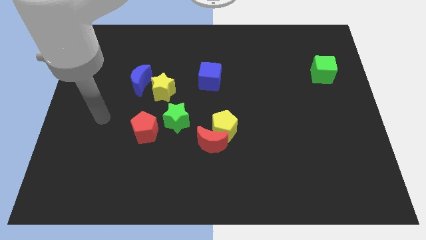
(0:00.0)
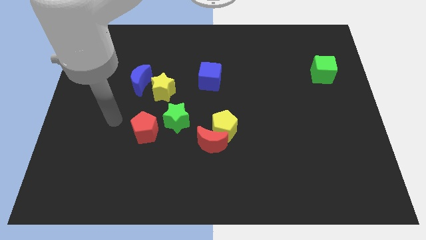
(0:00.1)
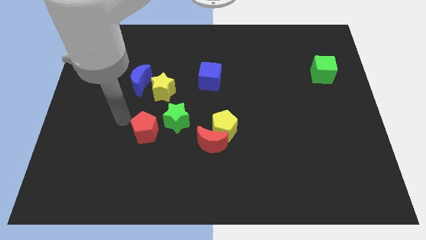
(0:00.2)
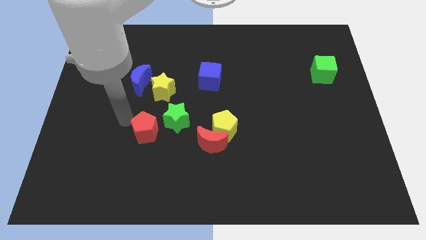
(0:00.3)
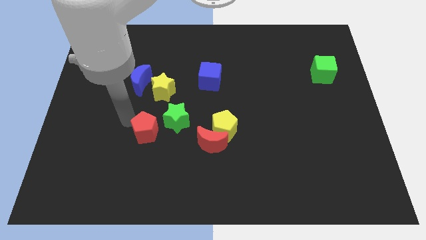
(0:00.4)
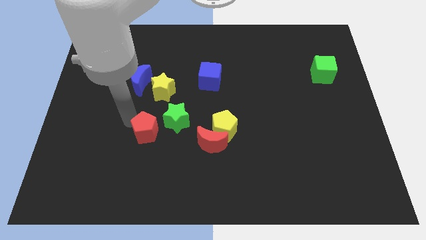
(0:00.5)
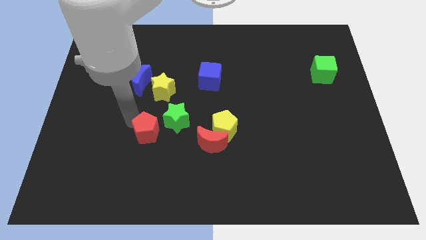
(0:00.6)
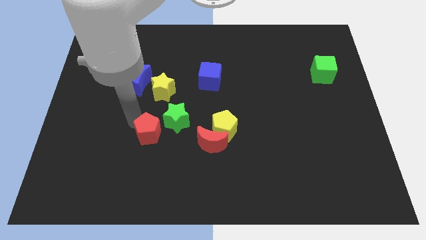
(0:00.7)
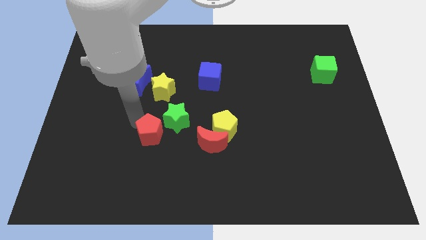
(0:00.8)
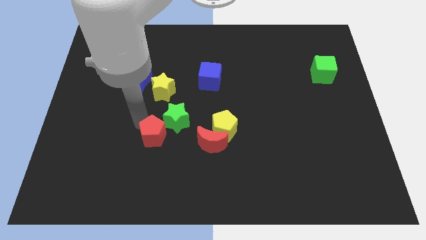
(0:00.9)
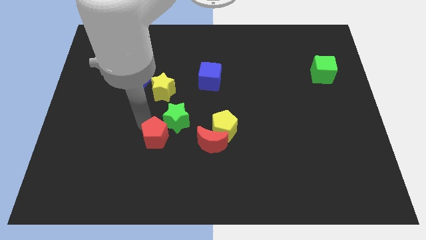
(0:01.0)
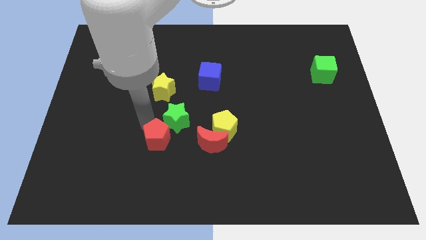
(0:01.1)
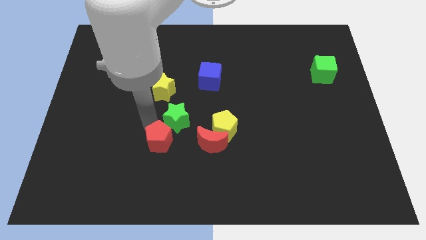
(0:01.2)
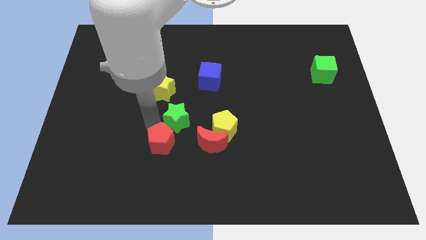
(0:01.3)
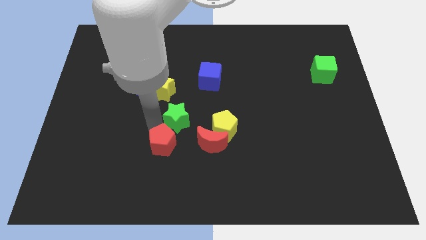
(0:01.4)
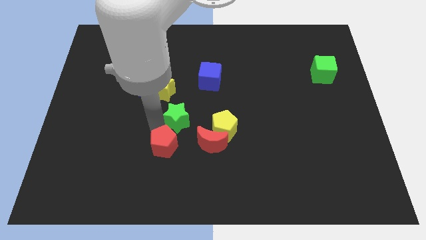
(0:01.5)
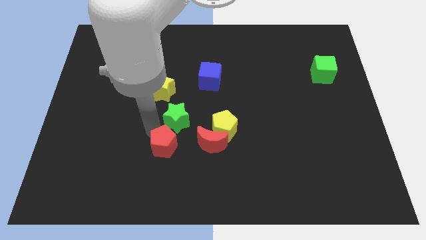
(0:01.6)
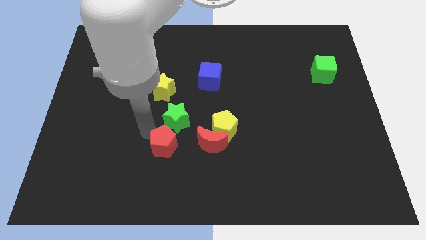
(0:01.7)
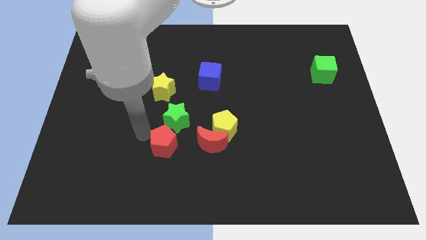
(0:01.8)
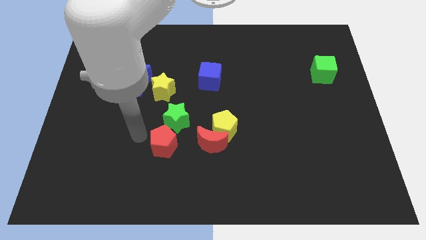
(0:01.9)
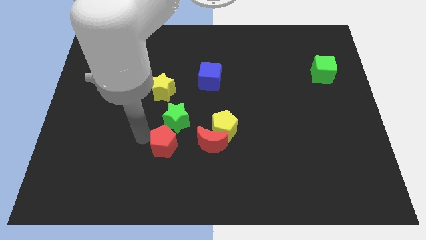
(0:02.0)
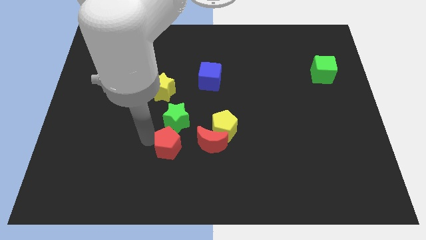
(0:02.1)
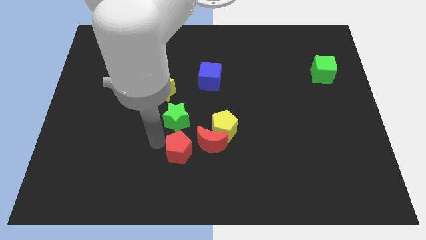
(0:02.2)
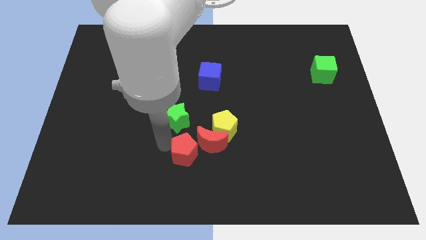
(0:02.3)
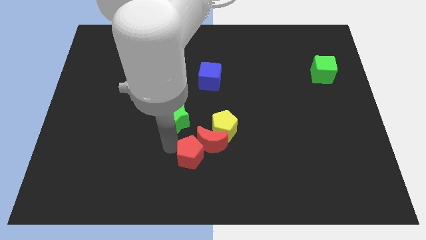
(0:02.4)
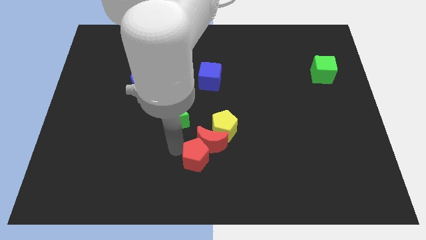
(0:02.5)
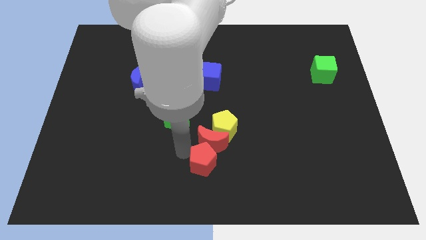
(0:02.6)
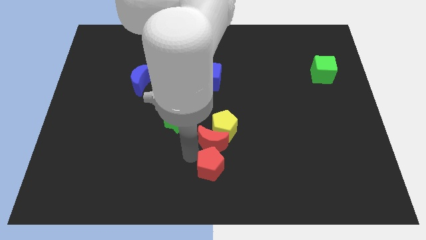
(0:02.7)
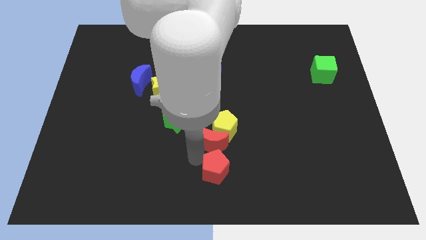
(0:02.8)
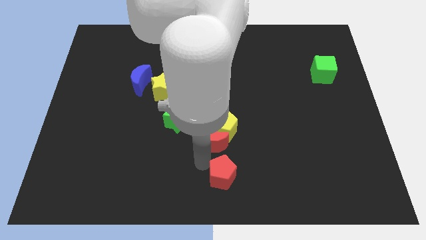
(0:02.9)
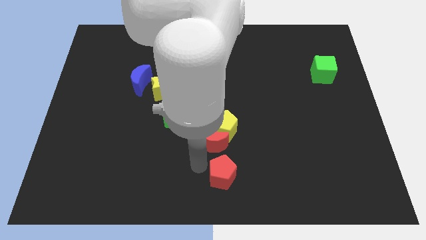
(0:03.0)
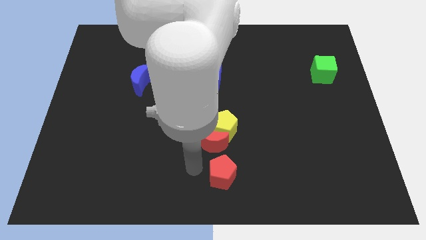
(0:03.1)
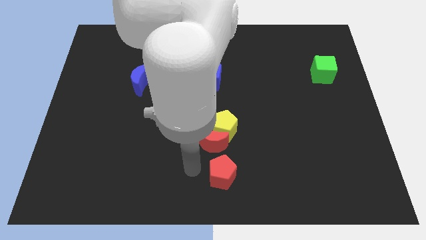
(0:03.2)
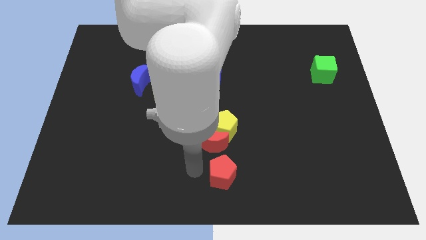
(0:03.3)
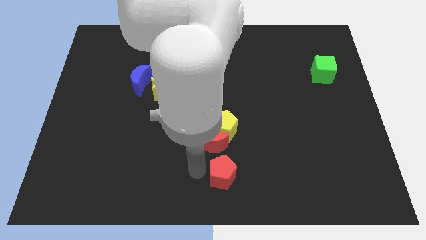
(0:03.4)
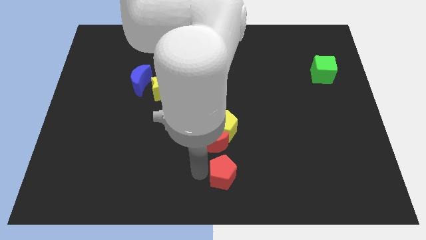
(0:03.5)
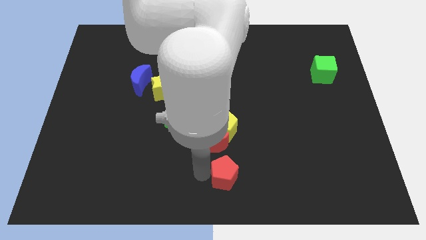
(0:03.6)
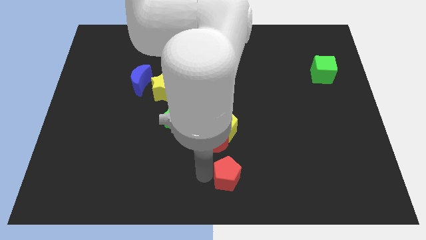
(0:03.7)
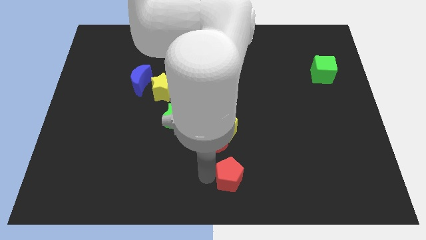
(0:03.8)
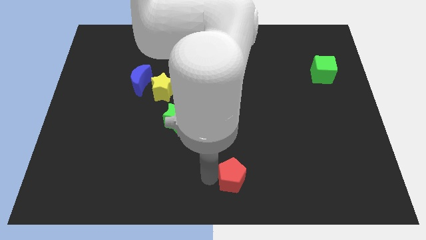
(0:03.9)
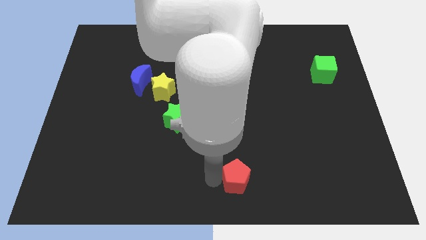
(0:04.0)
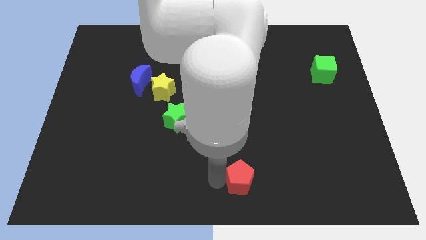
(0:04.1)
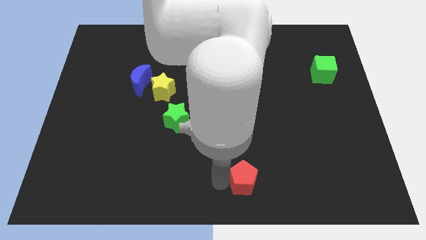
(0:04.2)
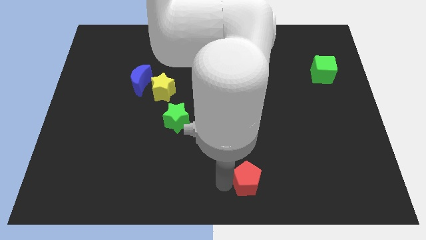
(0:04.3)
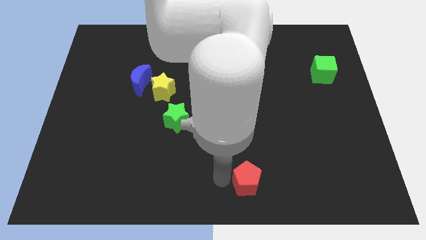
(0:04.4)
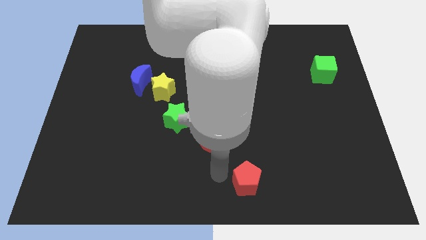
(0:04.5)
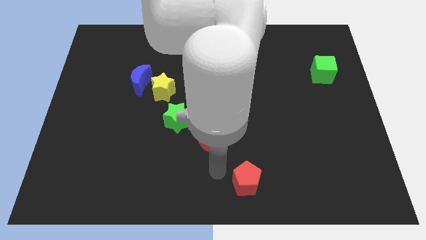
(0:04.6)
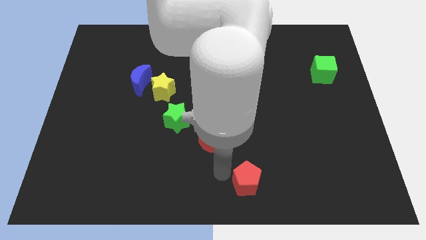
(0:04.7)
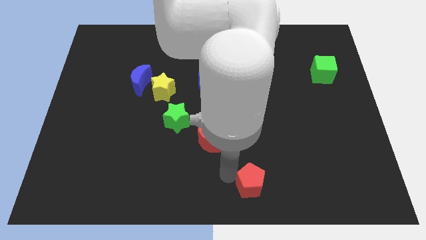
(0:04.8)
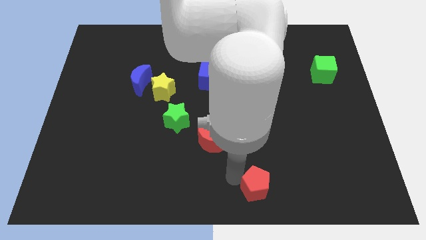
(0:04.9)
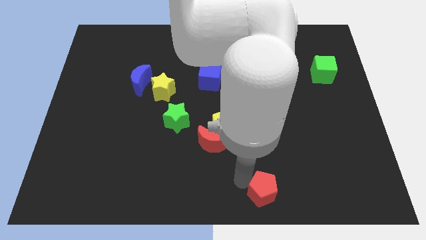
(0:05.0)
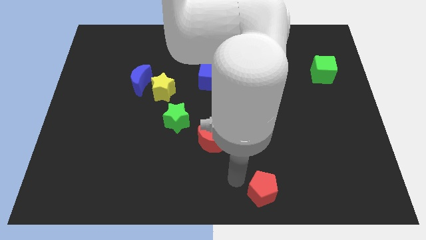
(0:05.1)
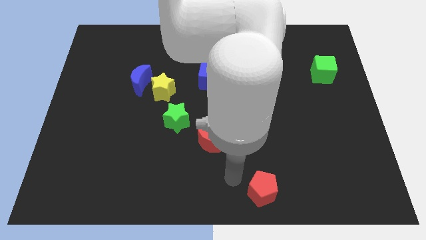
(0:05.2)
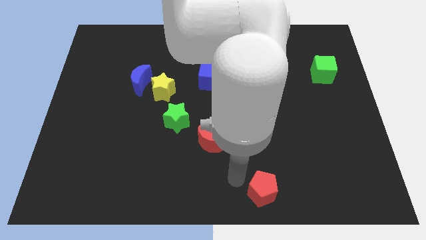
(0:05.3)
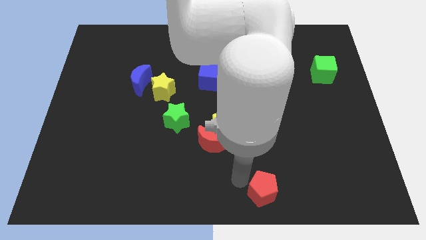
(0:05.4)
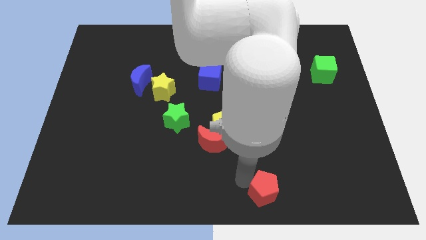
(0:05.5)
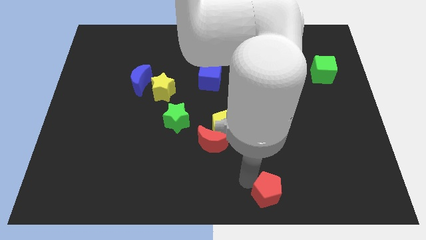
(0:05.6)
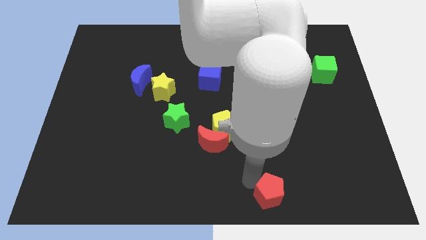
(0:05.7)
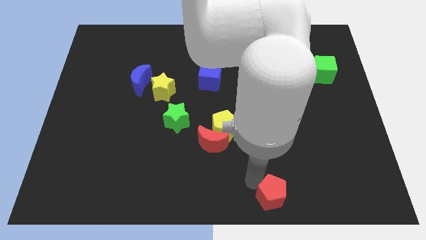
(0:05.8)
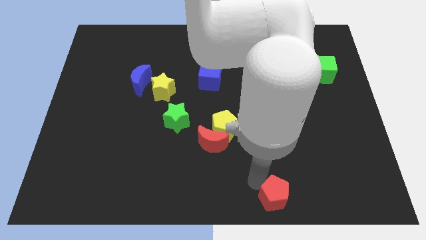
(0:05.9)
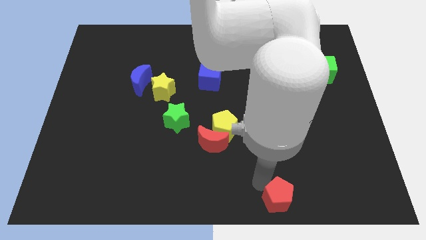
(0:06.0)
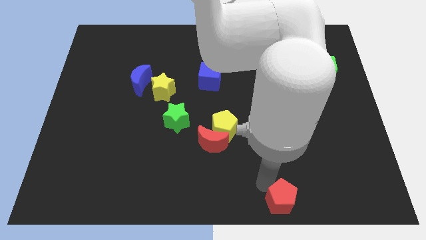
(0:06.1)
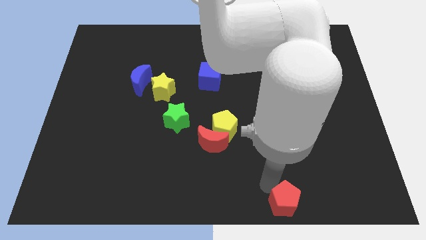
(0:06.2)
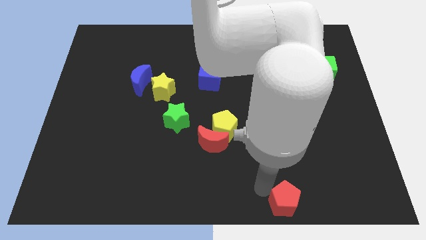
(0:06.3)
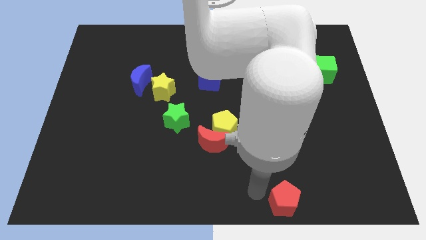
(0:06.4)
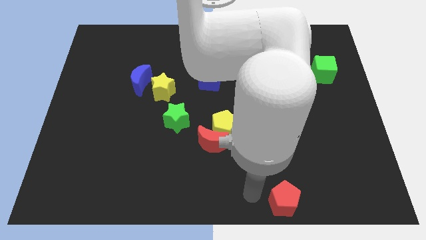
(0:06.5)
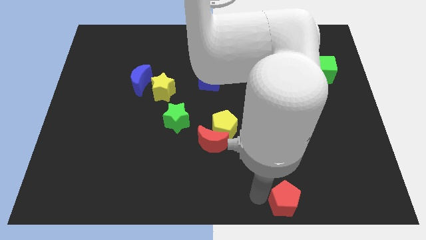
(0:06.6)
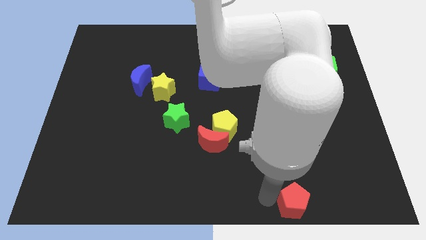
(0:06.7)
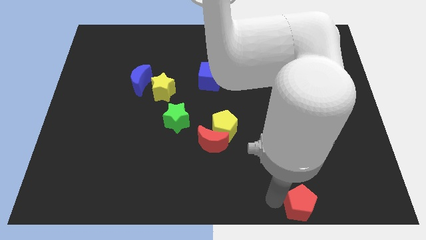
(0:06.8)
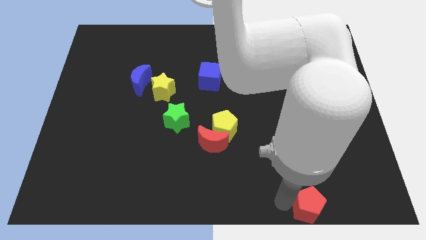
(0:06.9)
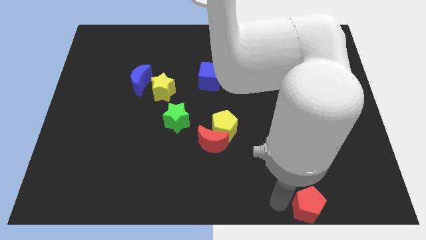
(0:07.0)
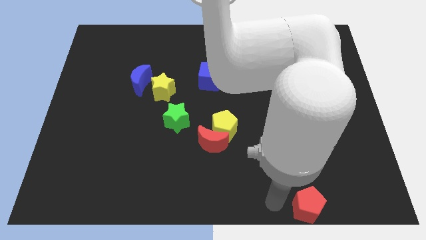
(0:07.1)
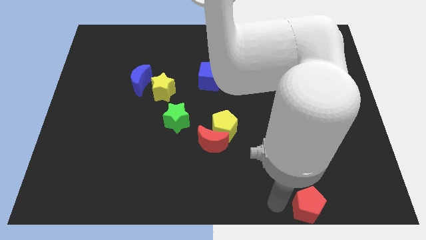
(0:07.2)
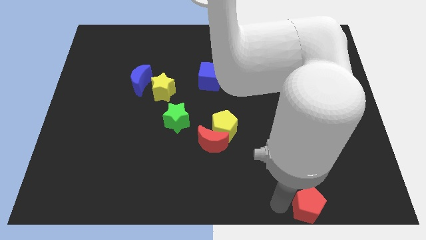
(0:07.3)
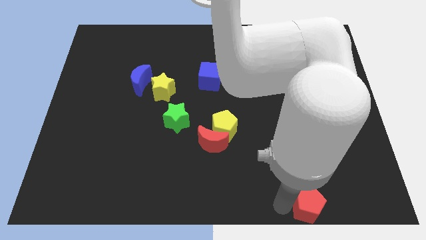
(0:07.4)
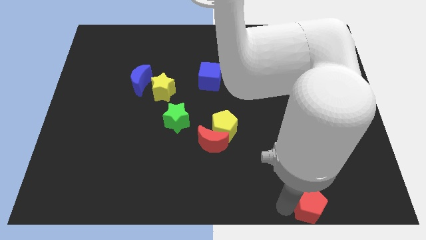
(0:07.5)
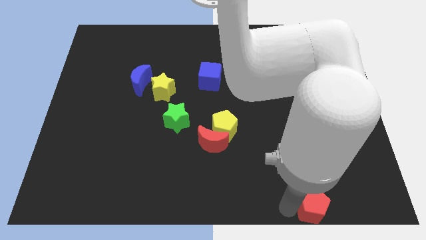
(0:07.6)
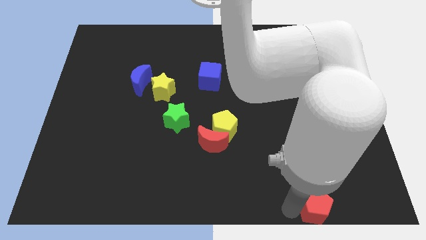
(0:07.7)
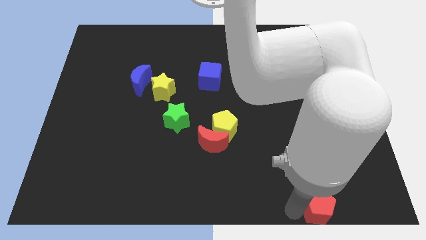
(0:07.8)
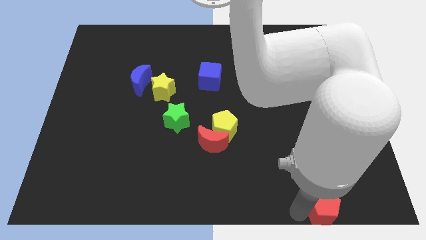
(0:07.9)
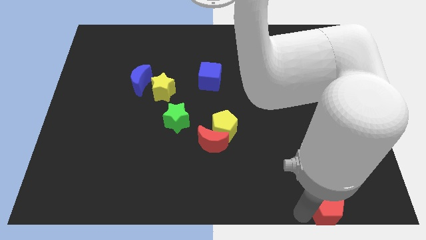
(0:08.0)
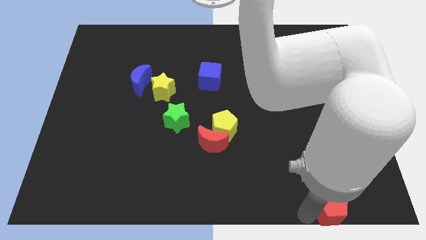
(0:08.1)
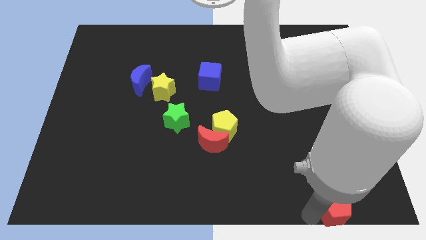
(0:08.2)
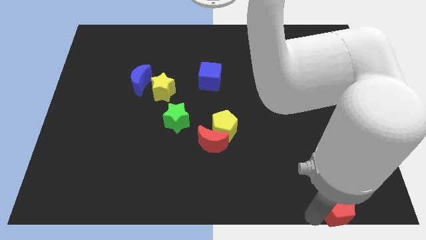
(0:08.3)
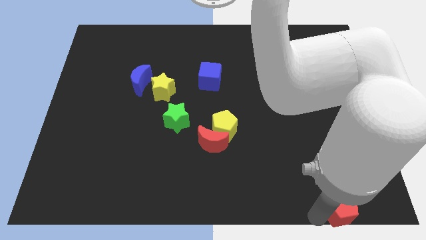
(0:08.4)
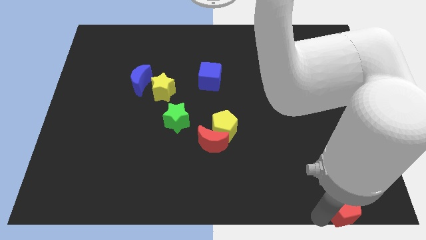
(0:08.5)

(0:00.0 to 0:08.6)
move the red pentagon to the bottom right
